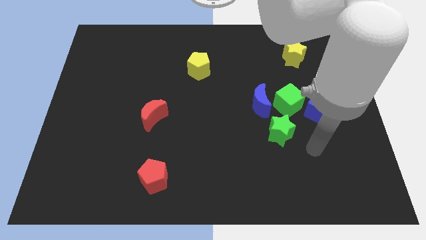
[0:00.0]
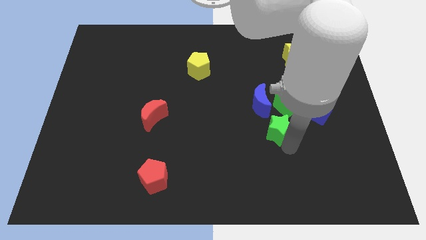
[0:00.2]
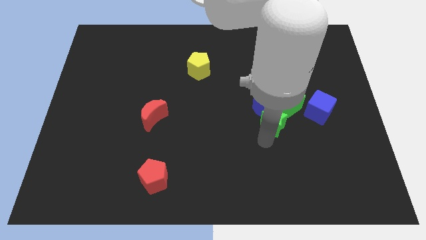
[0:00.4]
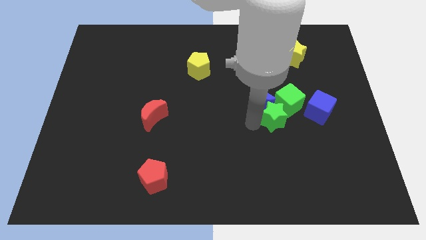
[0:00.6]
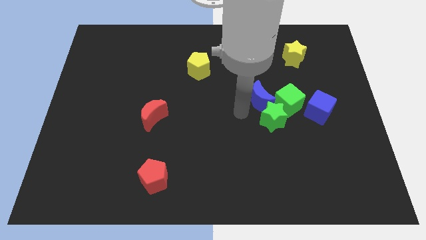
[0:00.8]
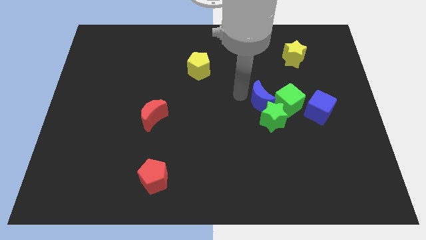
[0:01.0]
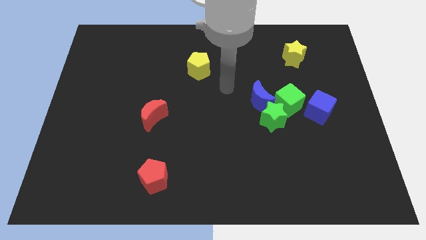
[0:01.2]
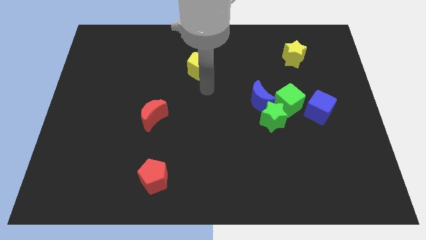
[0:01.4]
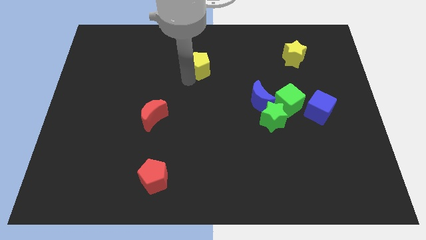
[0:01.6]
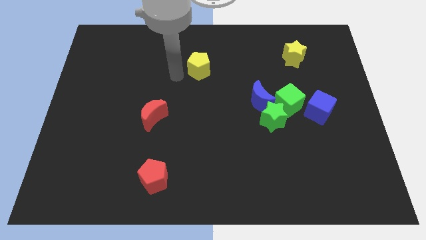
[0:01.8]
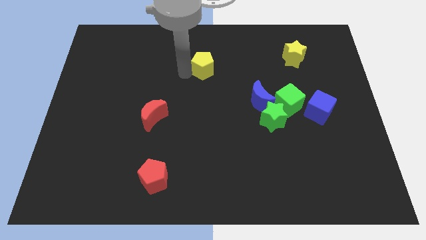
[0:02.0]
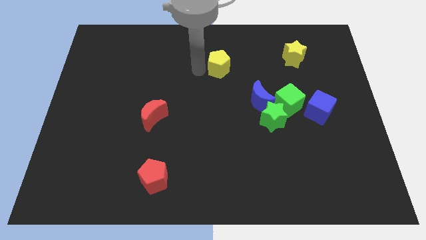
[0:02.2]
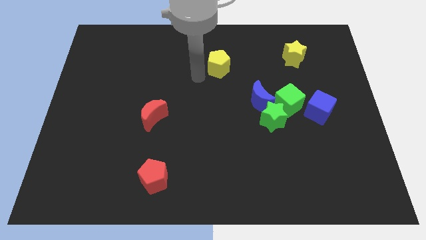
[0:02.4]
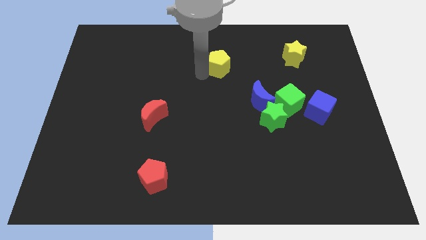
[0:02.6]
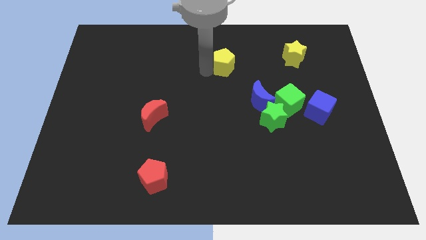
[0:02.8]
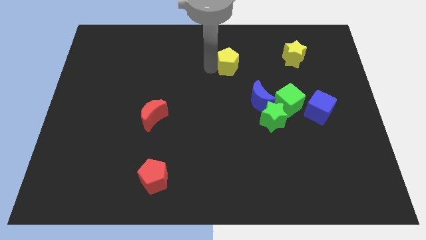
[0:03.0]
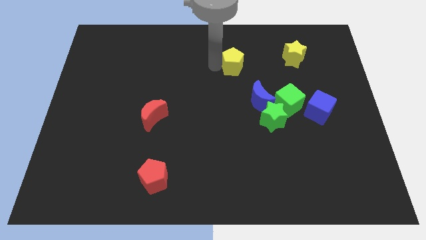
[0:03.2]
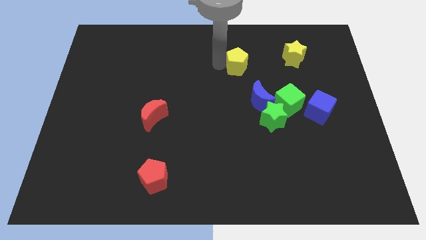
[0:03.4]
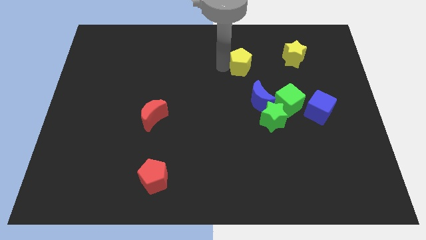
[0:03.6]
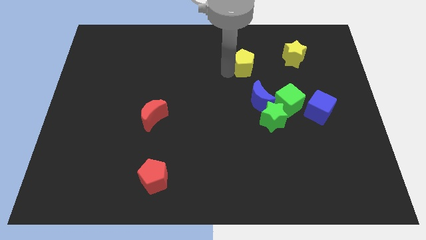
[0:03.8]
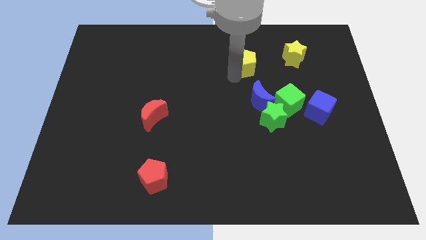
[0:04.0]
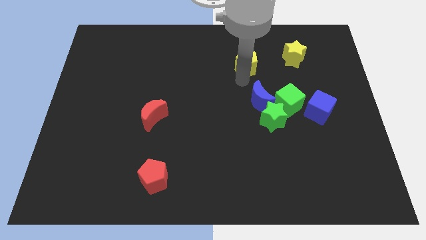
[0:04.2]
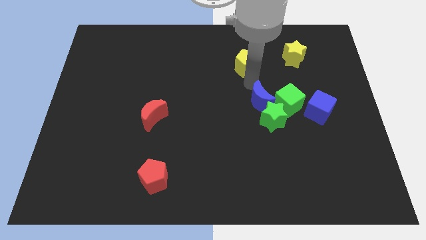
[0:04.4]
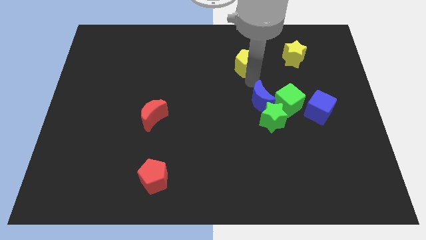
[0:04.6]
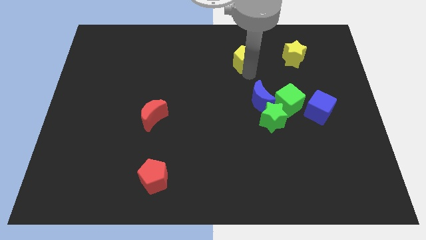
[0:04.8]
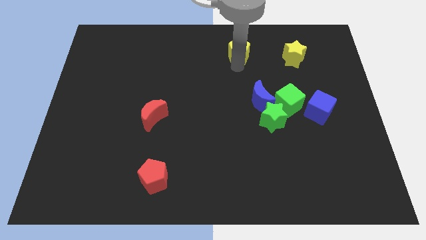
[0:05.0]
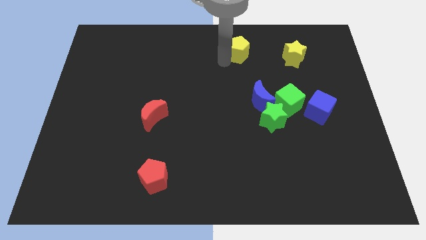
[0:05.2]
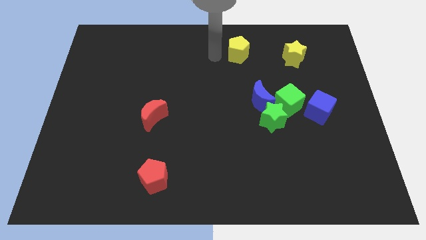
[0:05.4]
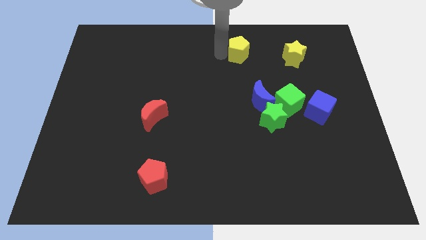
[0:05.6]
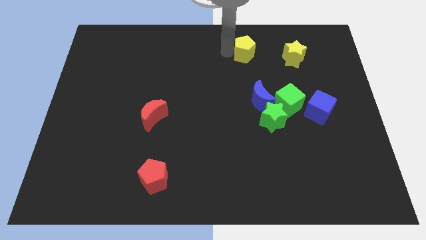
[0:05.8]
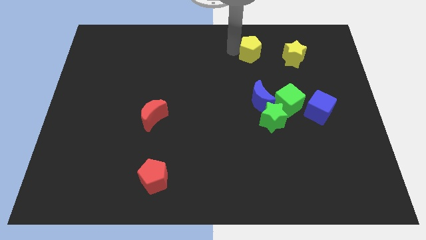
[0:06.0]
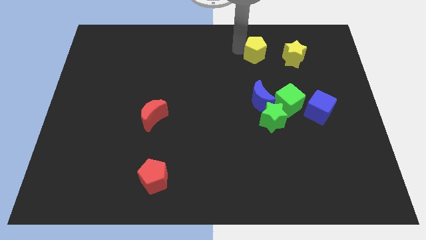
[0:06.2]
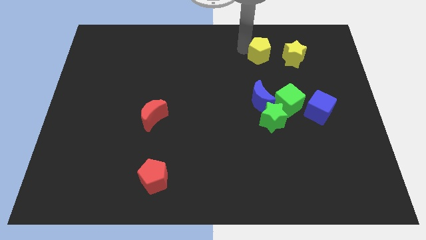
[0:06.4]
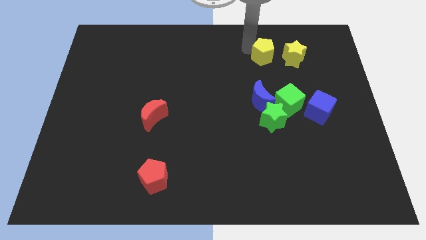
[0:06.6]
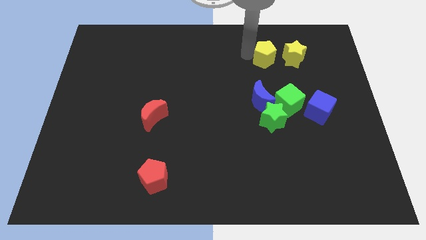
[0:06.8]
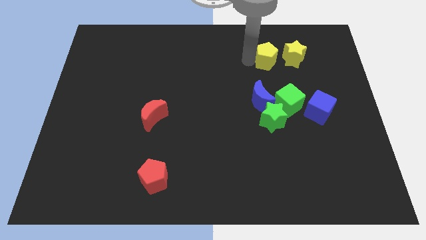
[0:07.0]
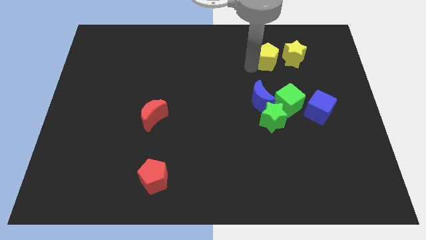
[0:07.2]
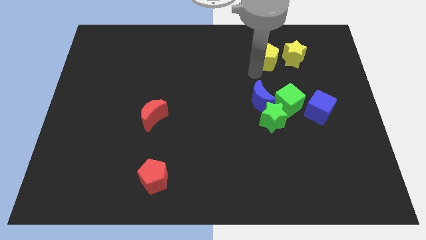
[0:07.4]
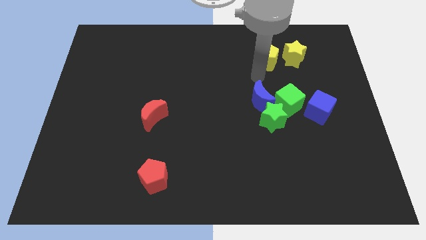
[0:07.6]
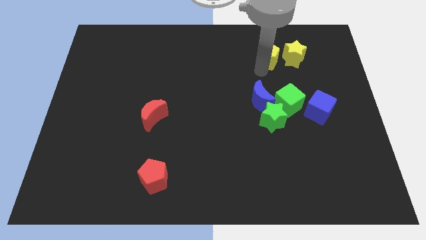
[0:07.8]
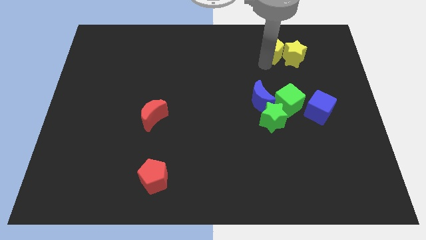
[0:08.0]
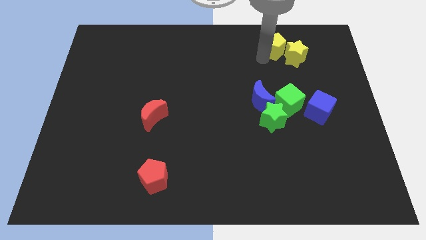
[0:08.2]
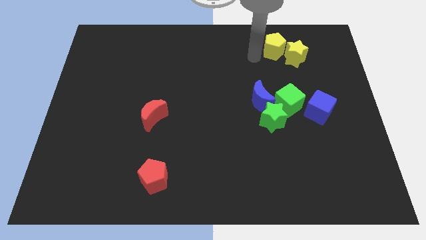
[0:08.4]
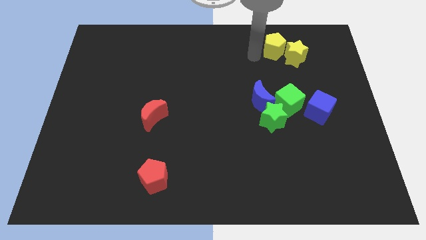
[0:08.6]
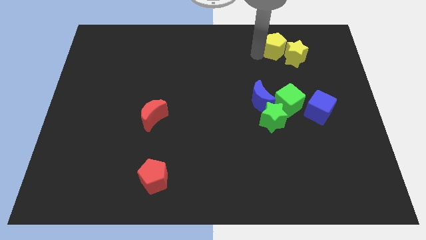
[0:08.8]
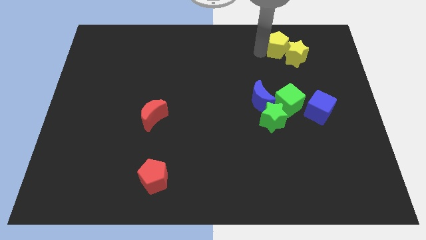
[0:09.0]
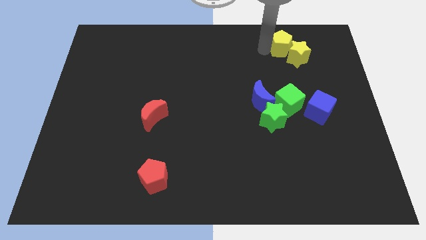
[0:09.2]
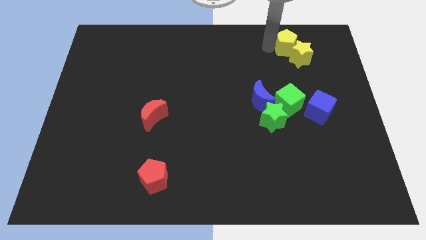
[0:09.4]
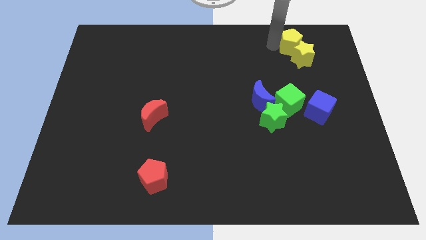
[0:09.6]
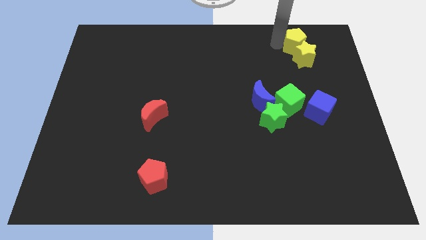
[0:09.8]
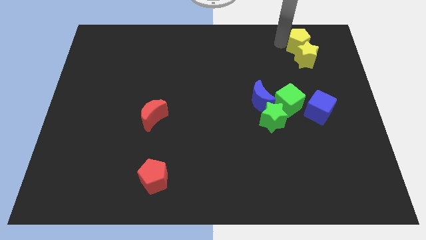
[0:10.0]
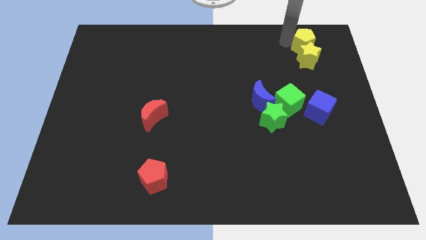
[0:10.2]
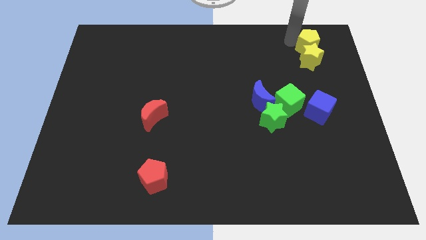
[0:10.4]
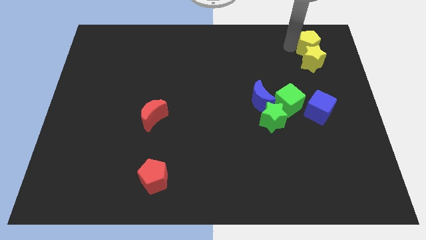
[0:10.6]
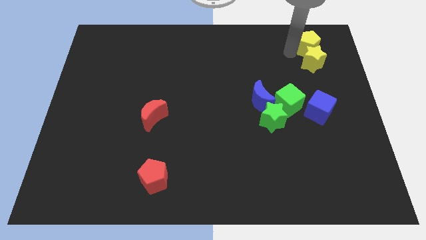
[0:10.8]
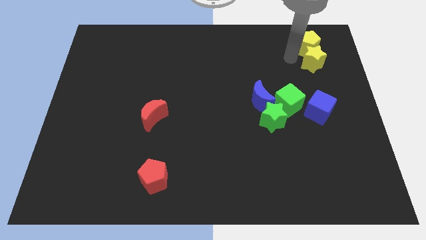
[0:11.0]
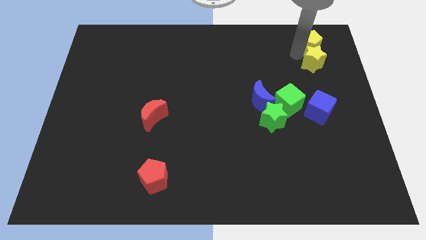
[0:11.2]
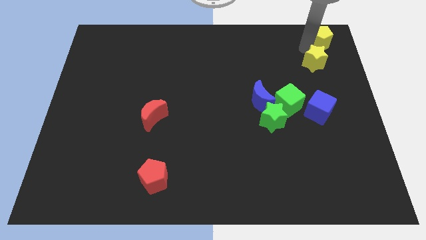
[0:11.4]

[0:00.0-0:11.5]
put the yellow pentagon to the top right
